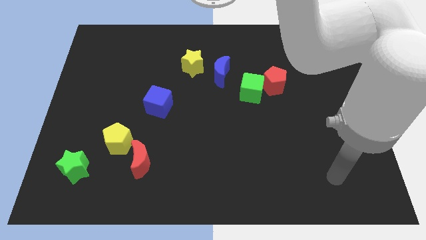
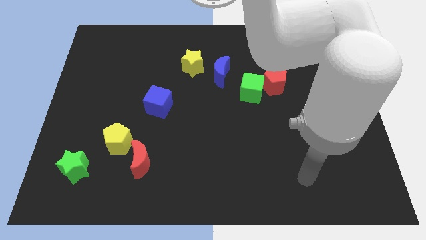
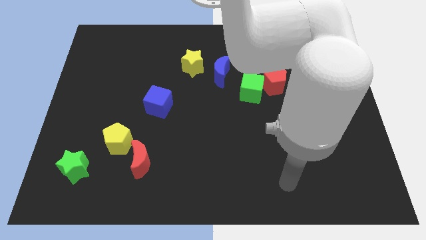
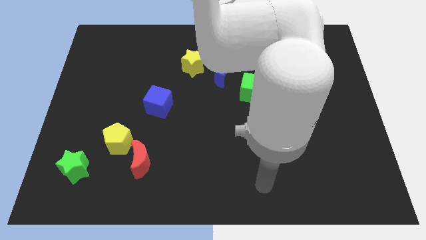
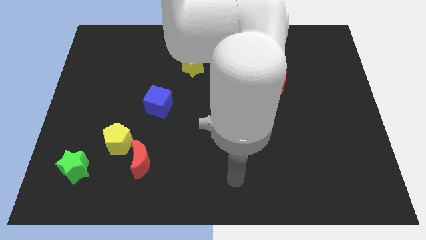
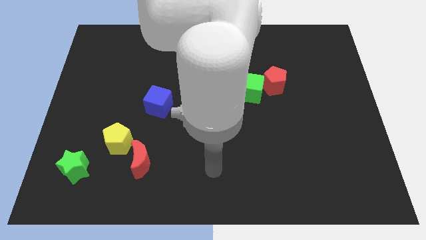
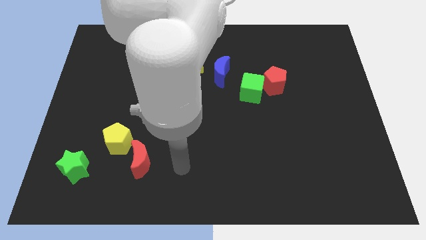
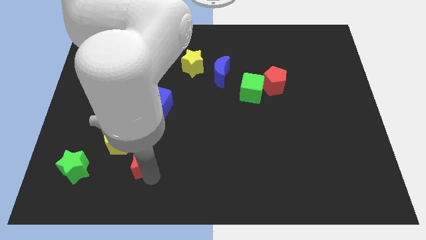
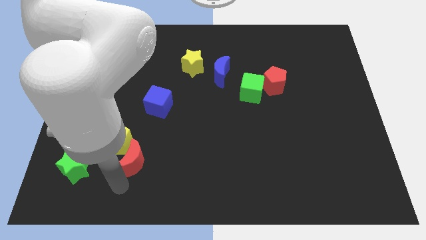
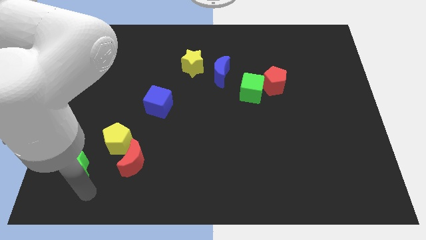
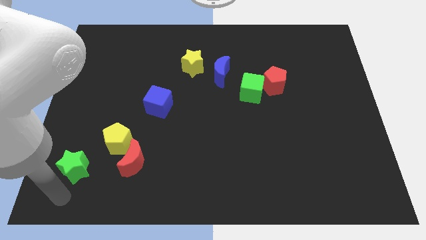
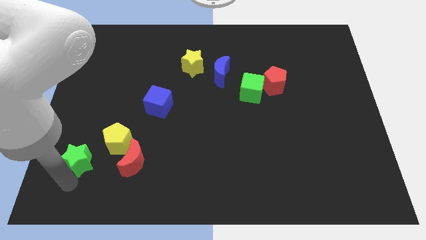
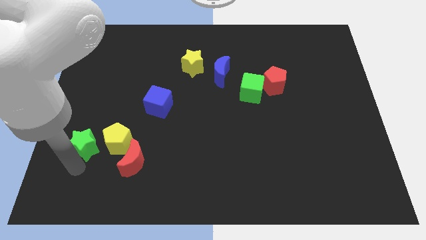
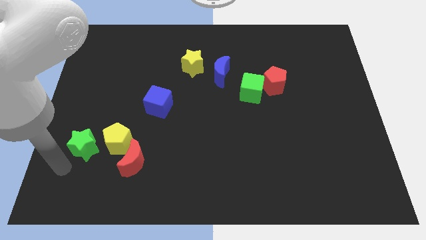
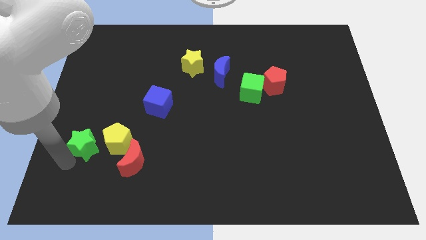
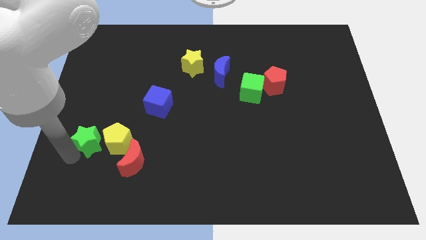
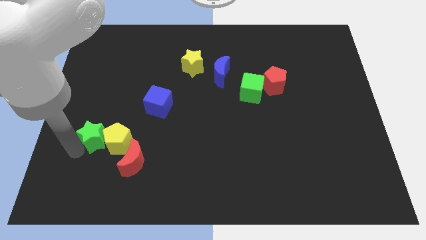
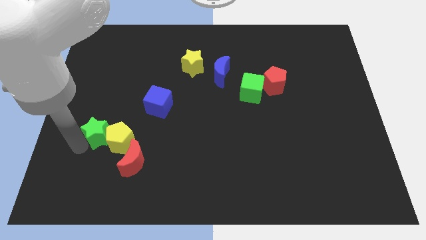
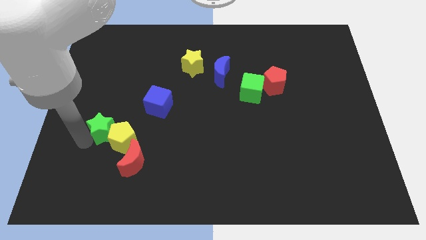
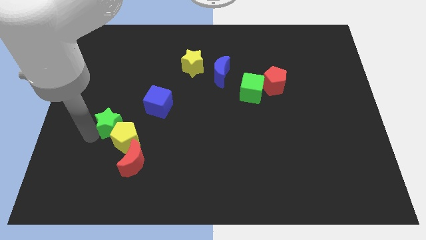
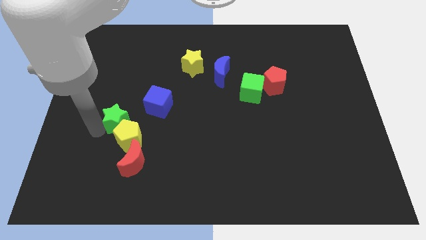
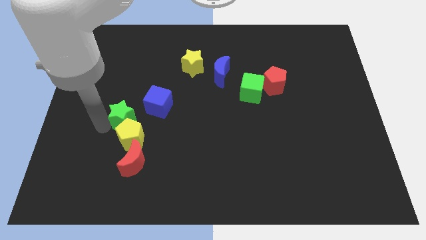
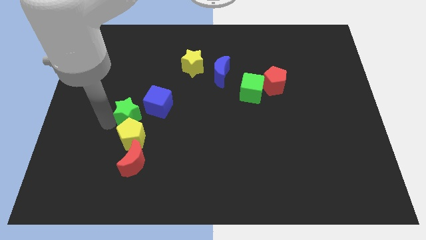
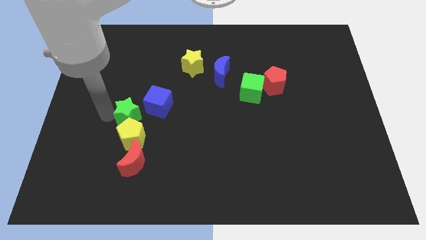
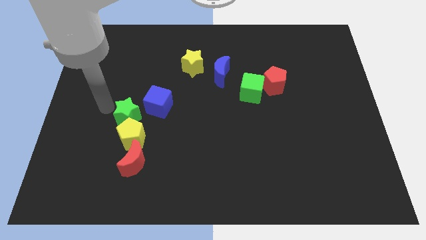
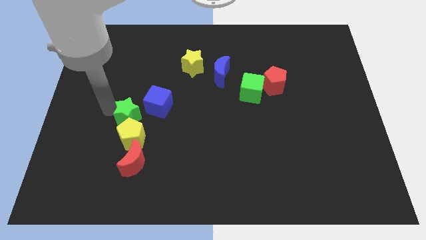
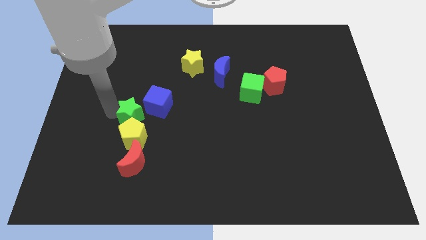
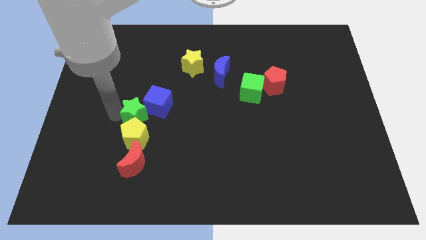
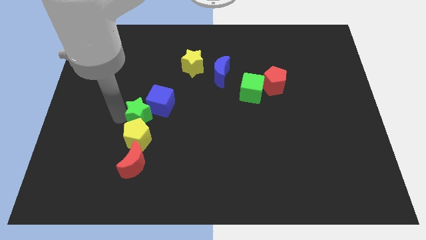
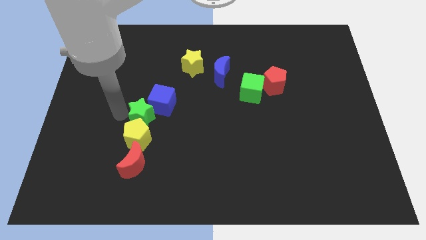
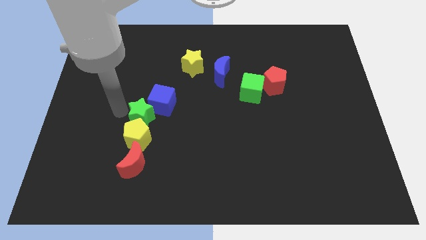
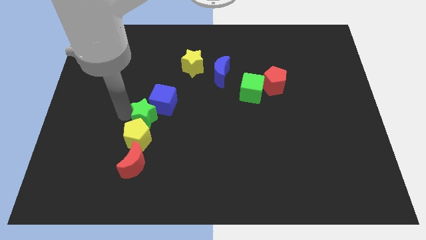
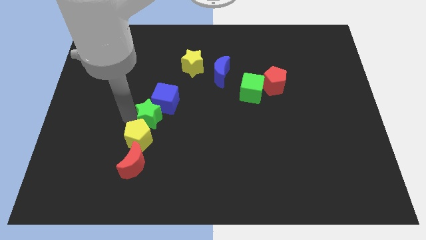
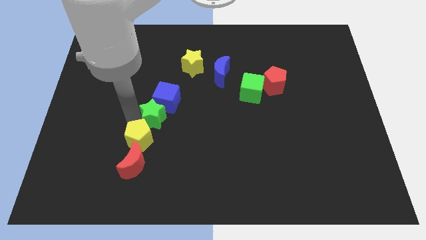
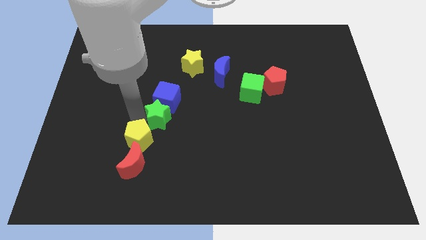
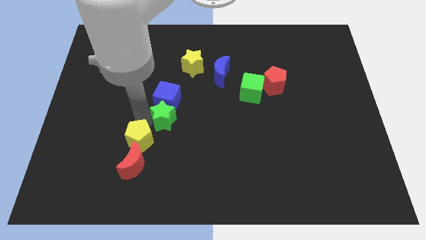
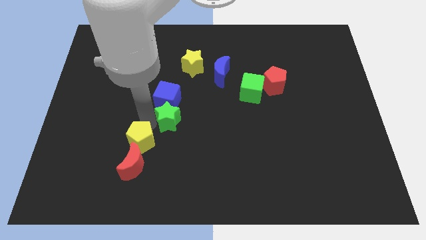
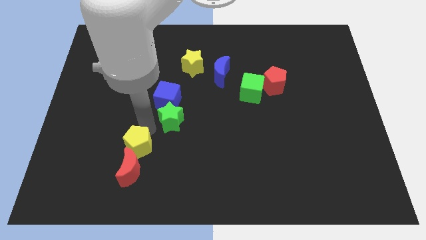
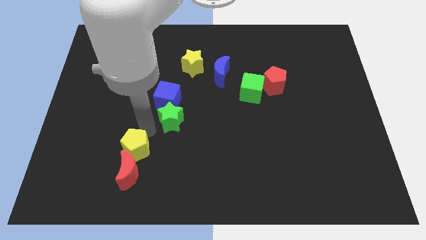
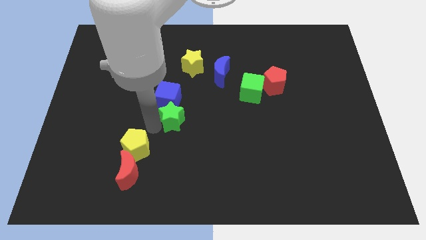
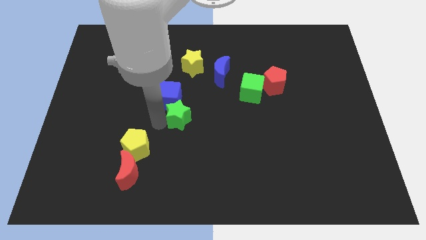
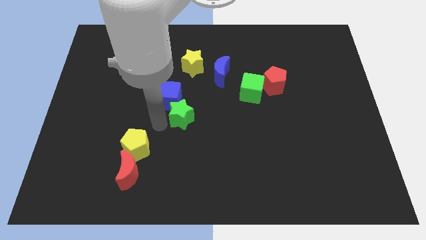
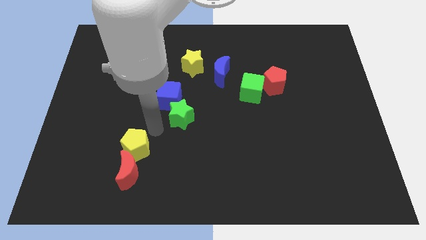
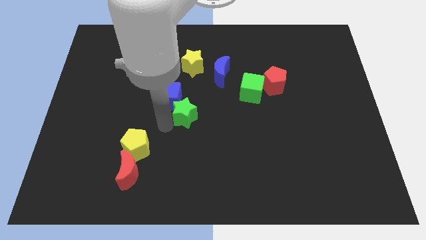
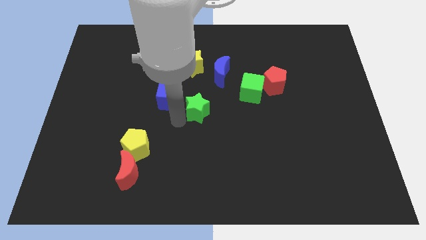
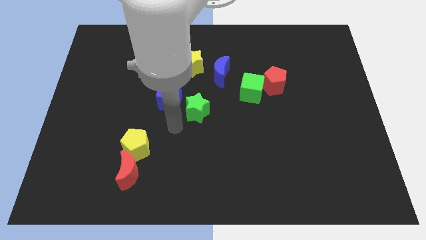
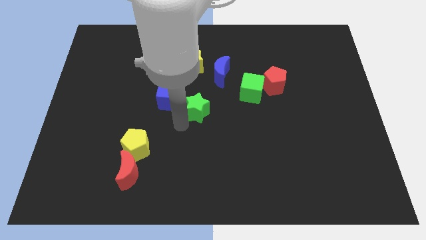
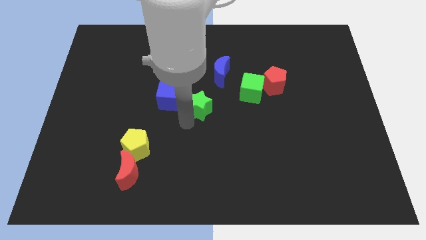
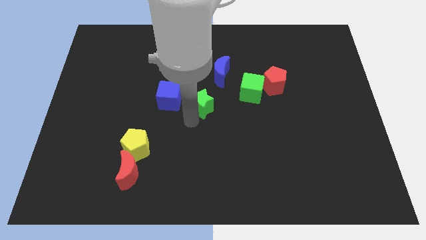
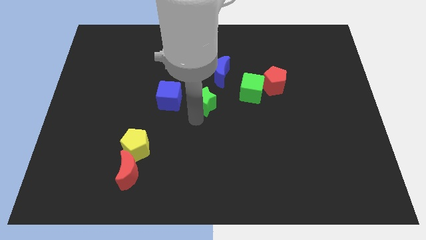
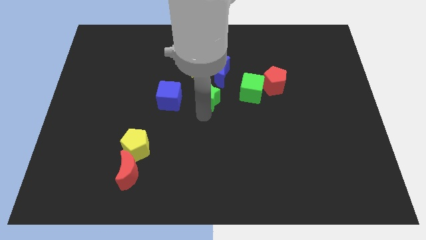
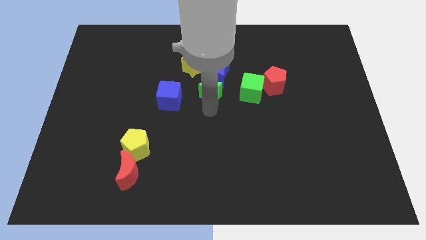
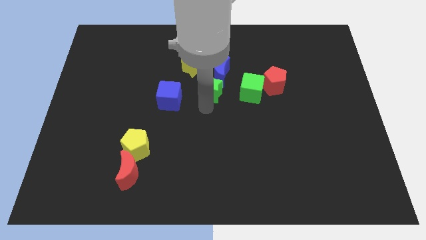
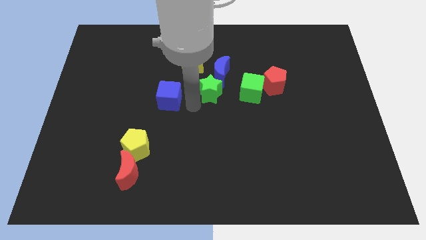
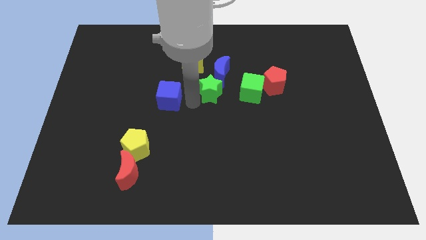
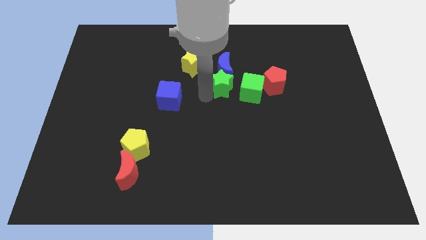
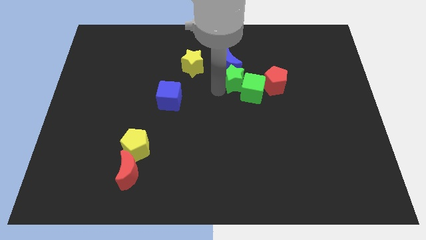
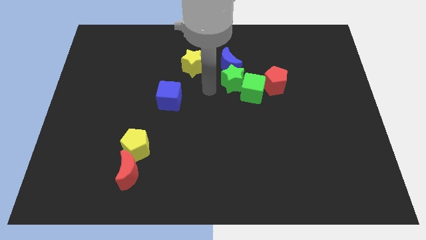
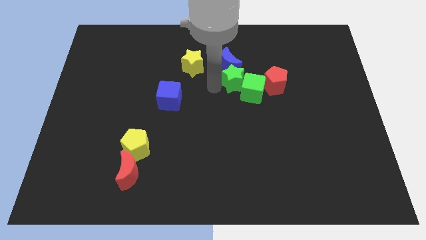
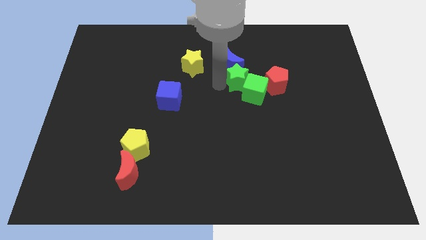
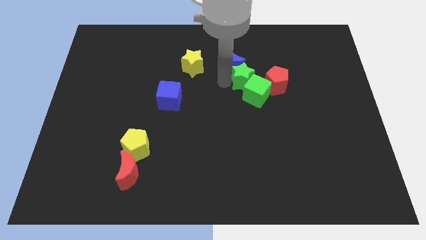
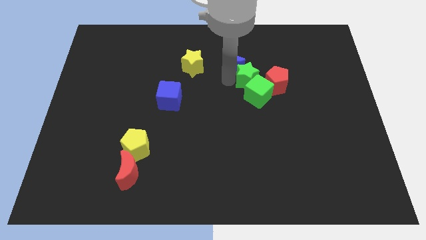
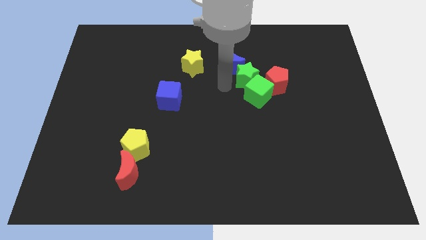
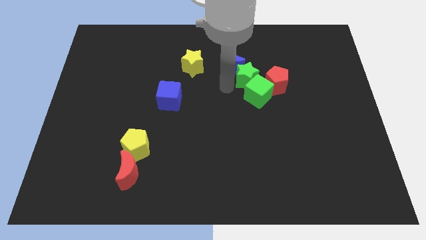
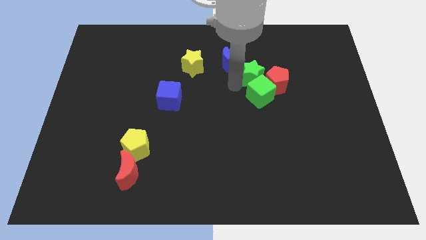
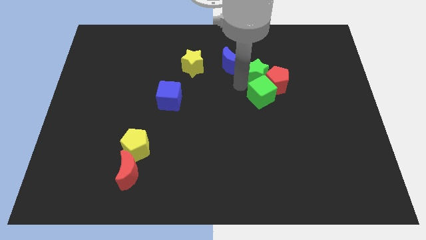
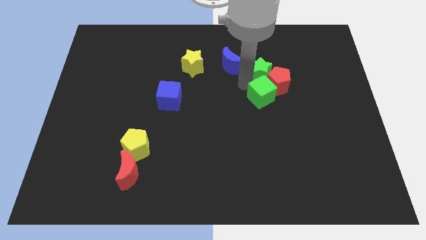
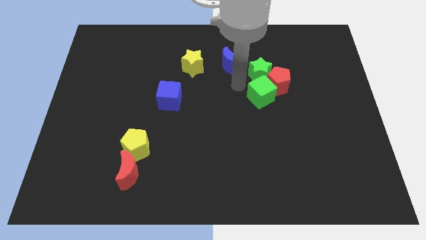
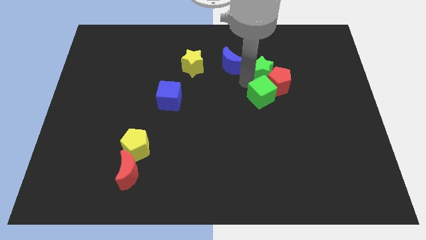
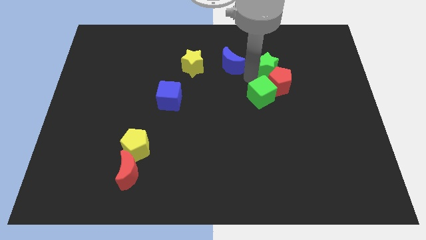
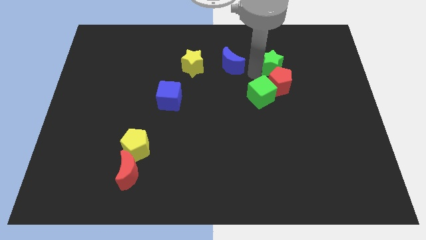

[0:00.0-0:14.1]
put the green star to the top right side of the red pentagon

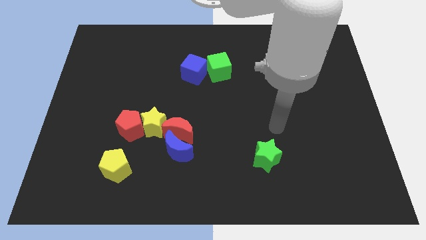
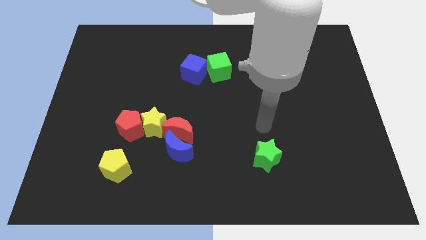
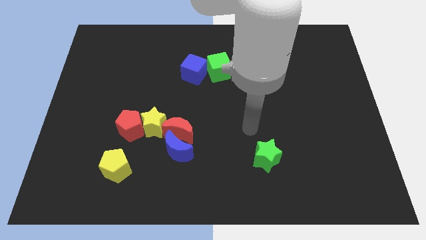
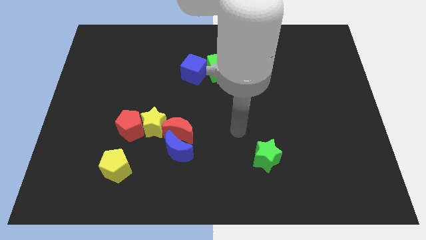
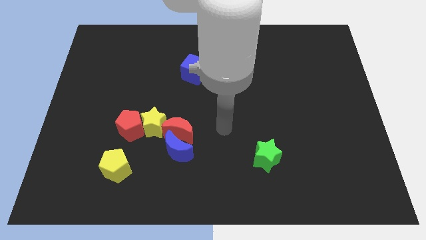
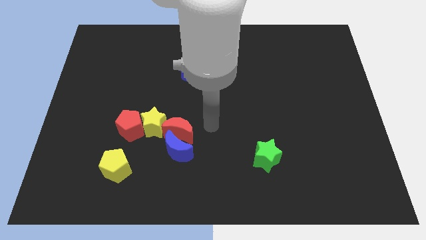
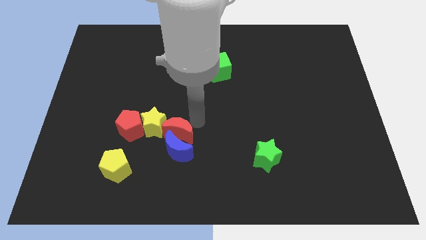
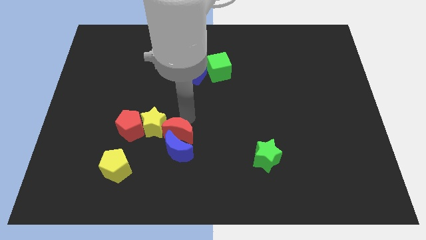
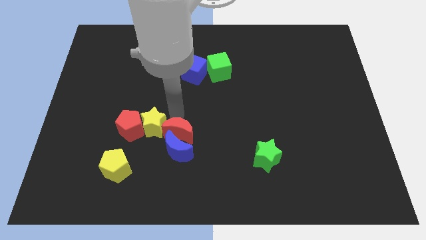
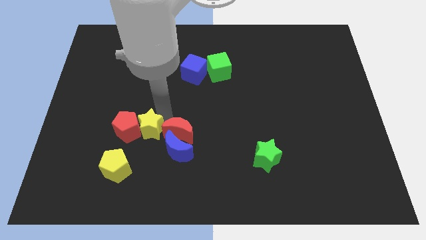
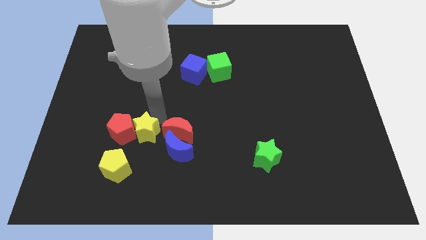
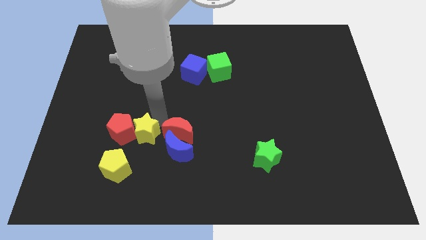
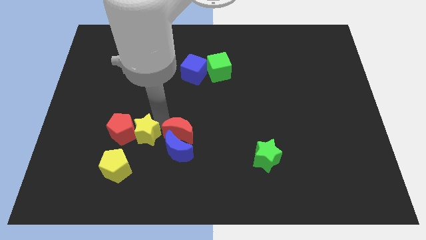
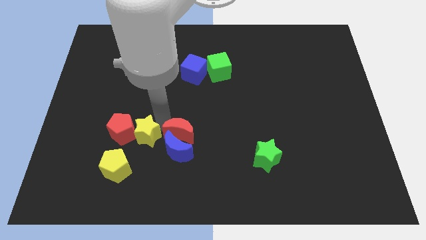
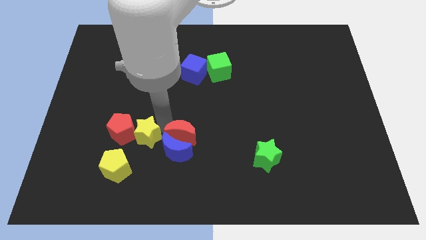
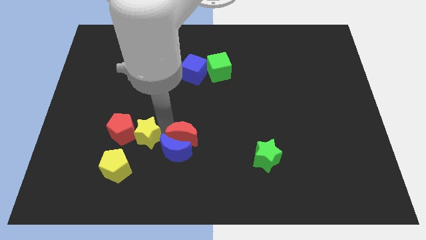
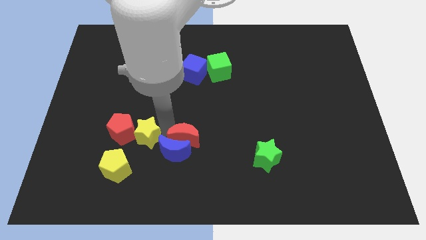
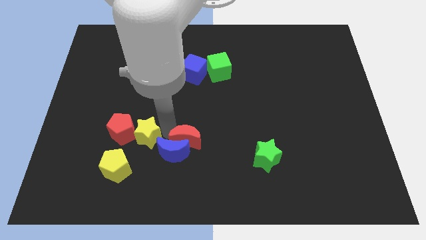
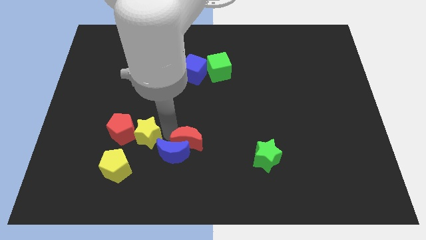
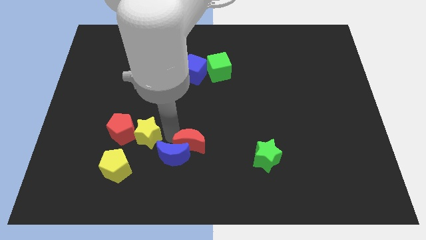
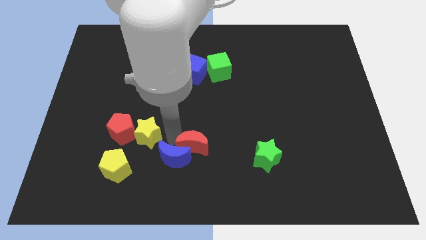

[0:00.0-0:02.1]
move the red moon to the left side of the green star
